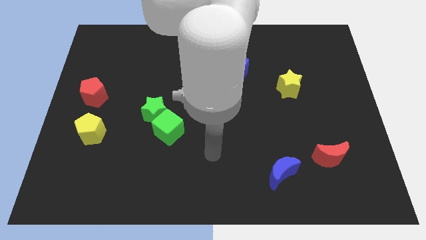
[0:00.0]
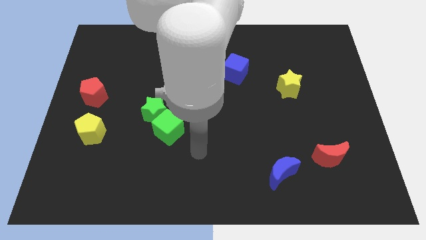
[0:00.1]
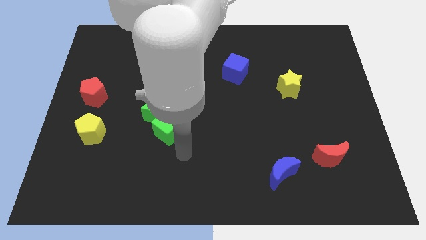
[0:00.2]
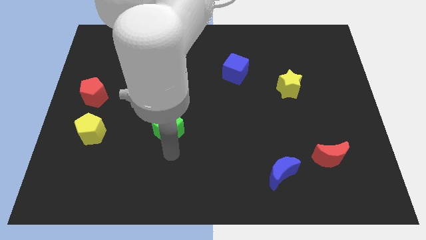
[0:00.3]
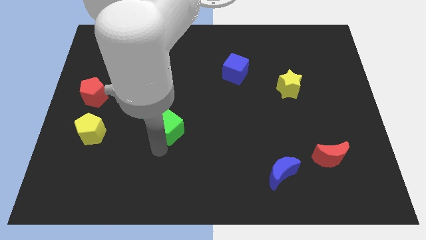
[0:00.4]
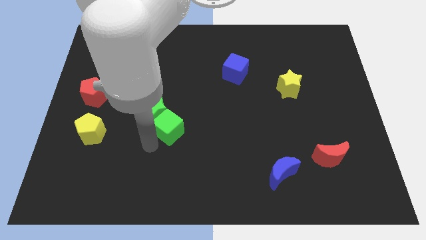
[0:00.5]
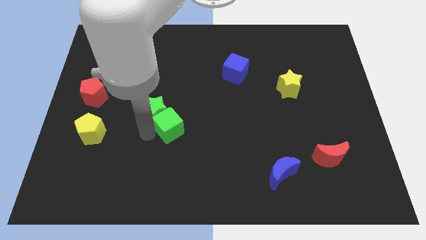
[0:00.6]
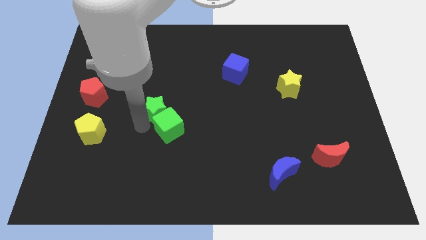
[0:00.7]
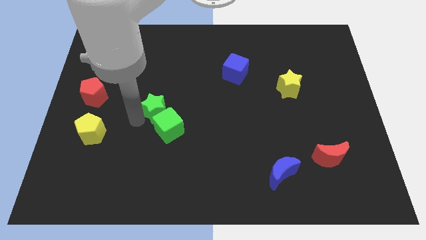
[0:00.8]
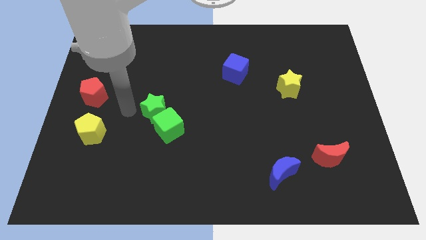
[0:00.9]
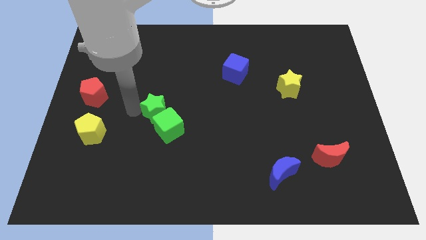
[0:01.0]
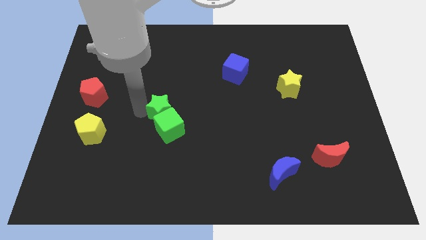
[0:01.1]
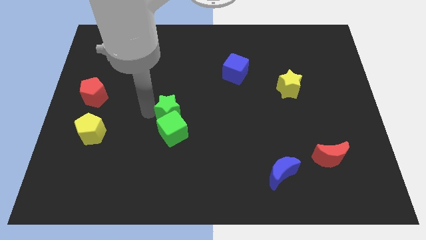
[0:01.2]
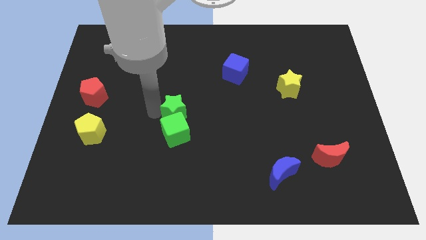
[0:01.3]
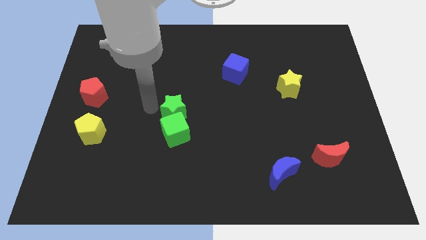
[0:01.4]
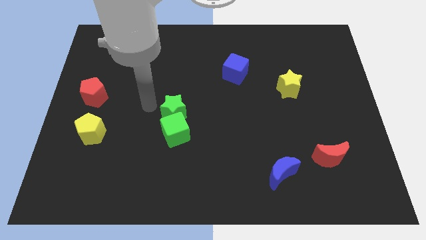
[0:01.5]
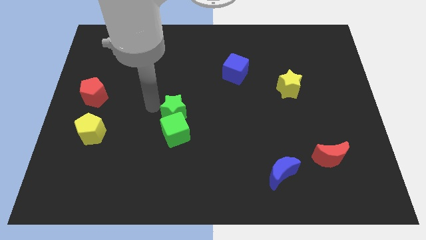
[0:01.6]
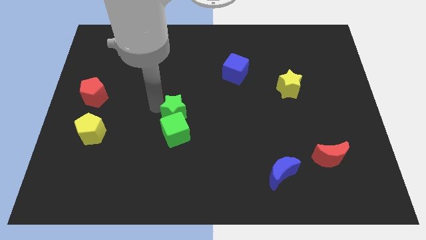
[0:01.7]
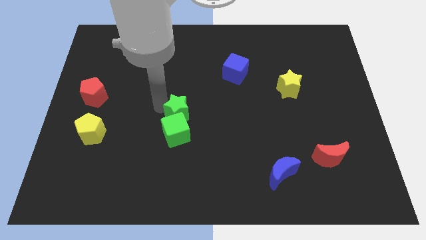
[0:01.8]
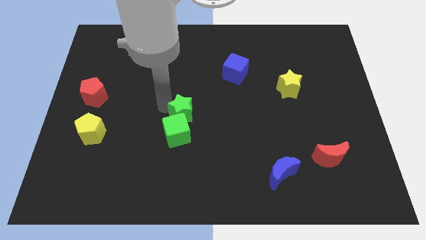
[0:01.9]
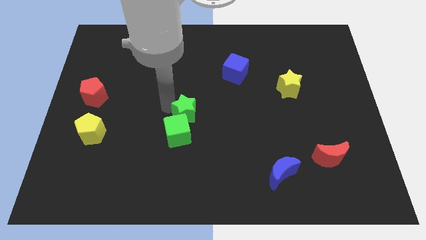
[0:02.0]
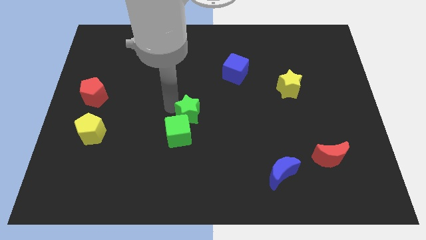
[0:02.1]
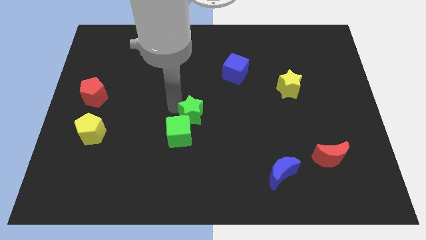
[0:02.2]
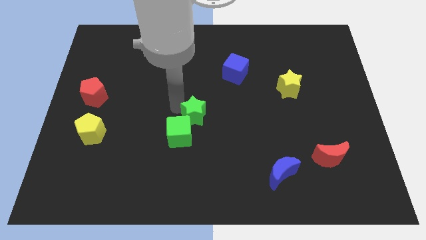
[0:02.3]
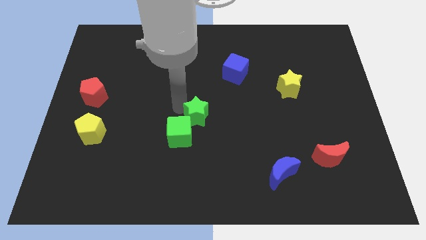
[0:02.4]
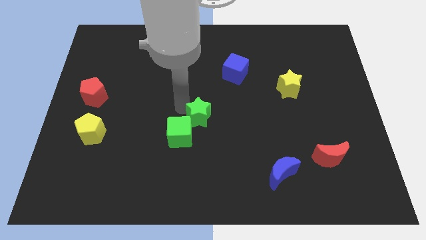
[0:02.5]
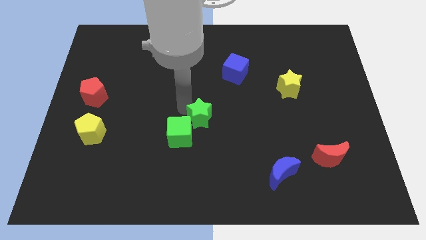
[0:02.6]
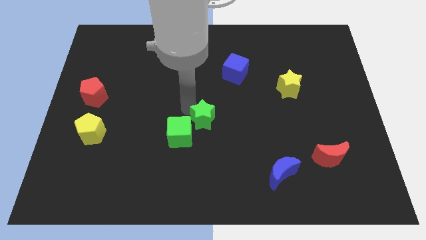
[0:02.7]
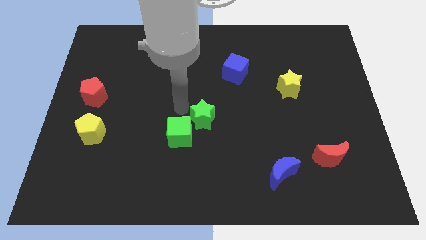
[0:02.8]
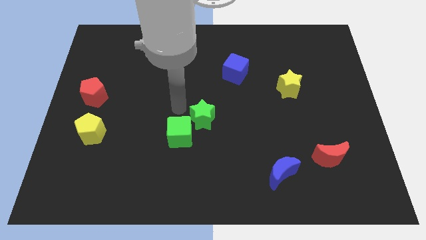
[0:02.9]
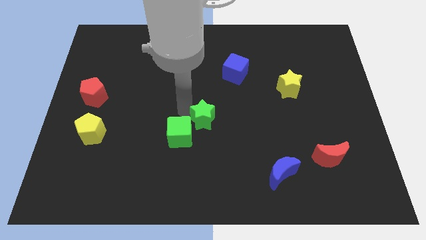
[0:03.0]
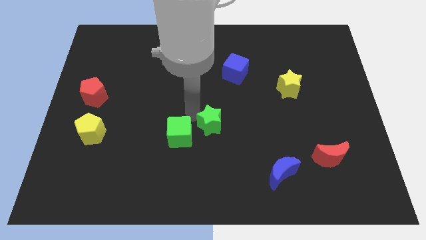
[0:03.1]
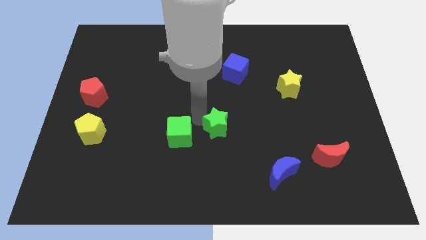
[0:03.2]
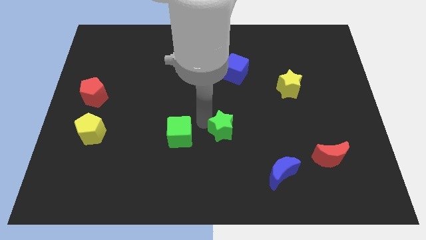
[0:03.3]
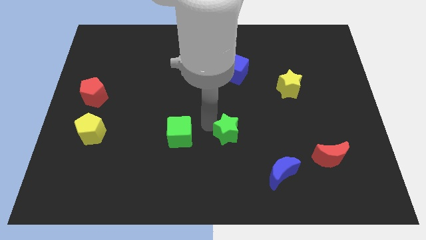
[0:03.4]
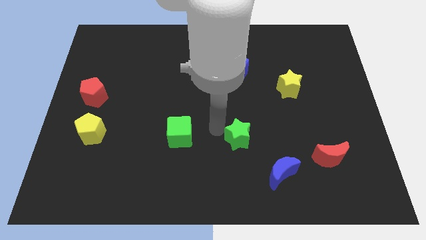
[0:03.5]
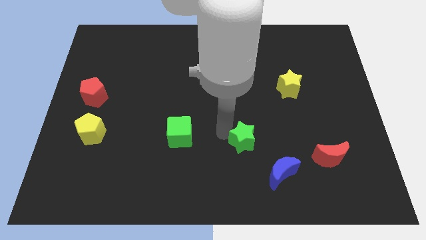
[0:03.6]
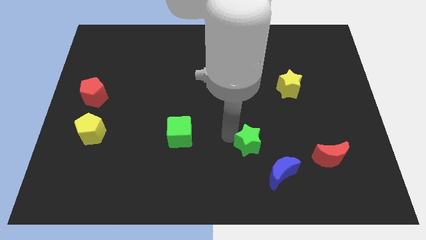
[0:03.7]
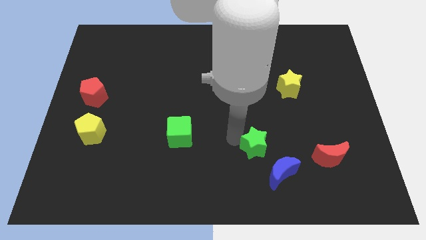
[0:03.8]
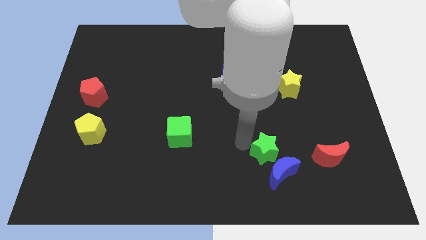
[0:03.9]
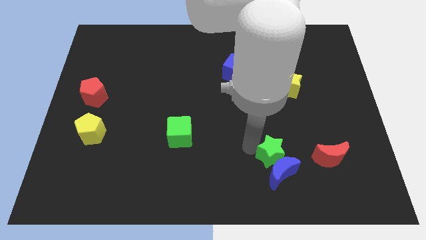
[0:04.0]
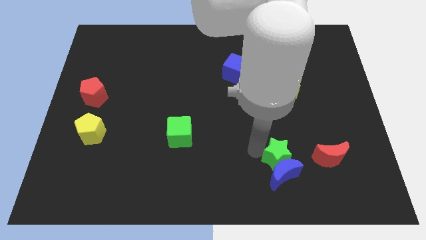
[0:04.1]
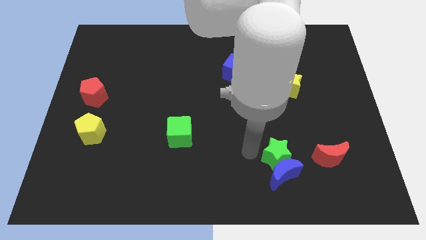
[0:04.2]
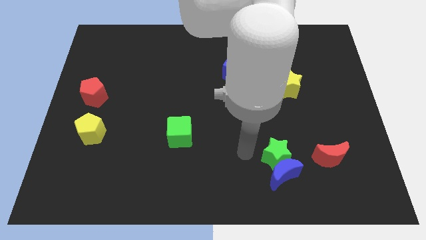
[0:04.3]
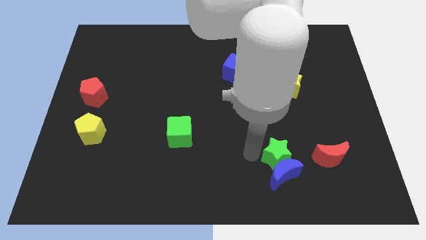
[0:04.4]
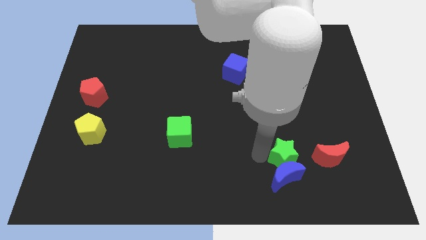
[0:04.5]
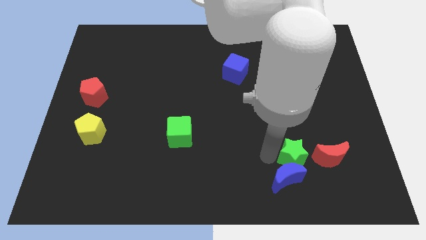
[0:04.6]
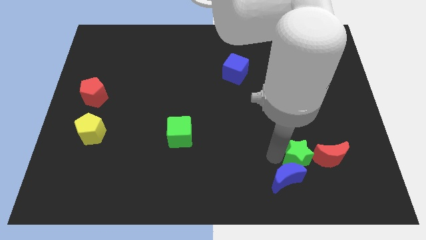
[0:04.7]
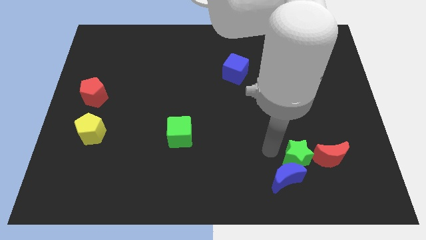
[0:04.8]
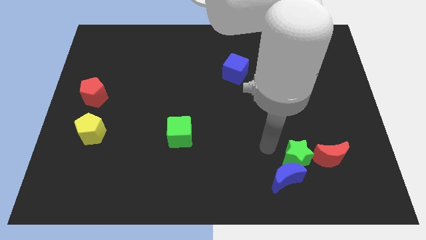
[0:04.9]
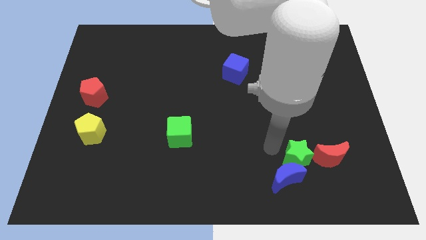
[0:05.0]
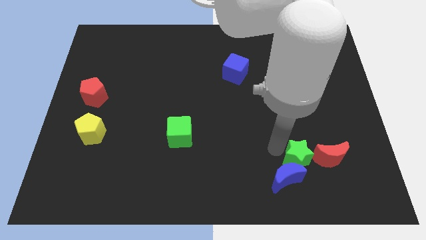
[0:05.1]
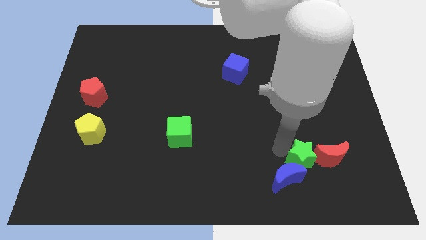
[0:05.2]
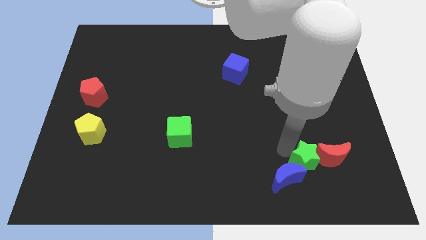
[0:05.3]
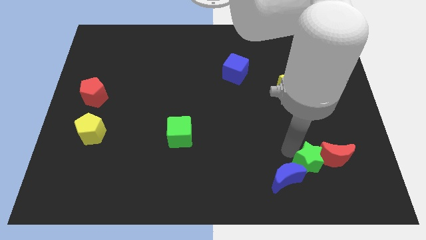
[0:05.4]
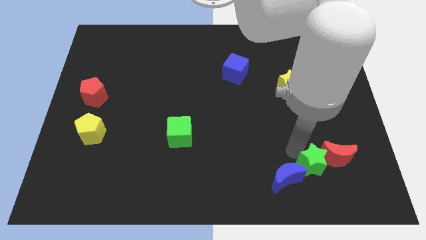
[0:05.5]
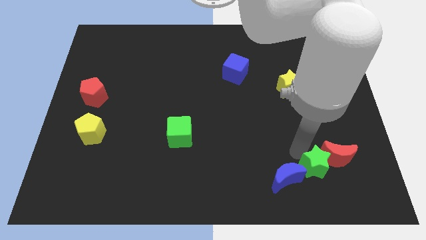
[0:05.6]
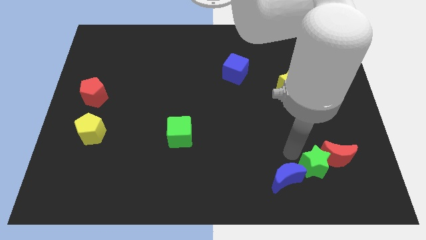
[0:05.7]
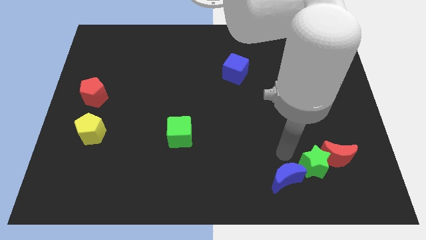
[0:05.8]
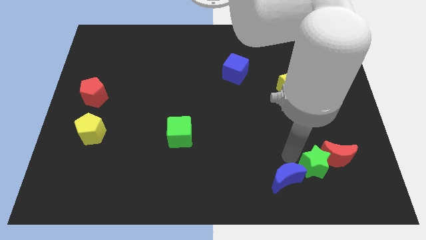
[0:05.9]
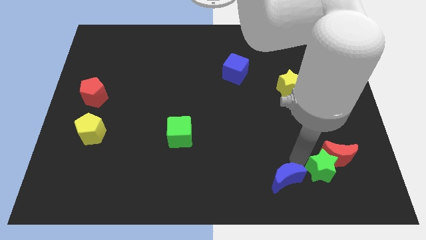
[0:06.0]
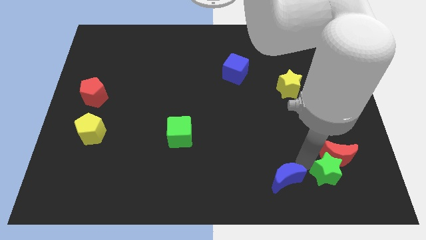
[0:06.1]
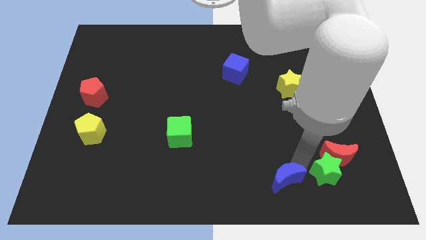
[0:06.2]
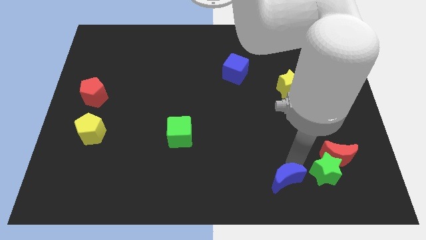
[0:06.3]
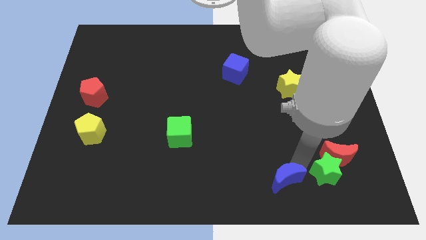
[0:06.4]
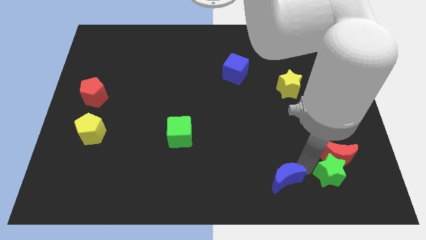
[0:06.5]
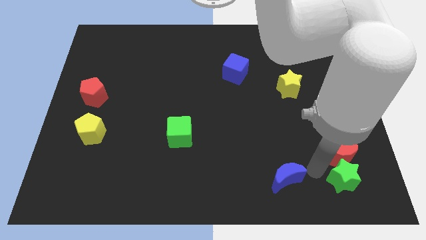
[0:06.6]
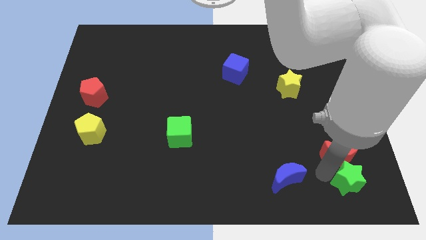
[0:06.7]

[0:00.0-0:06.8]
put the green star to the lower right corner
